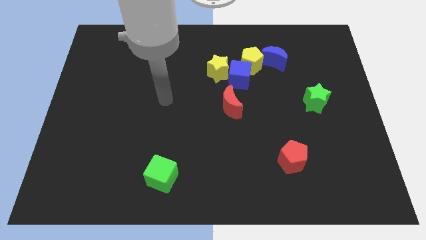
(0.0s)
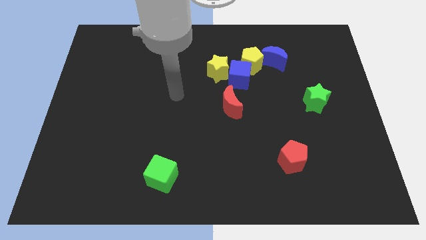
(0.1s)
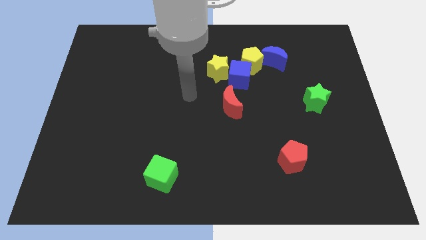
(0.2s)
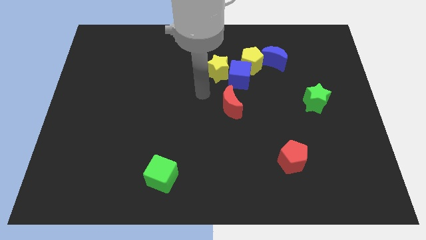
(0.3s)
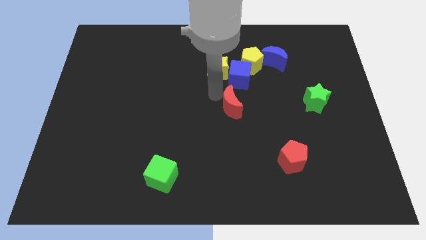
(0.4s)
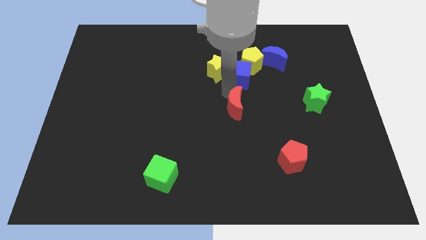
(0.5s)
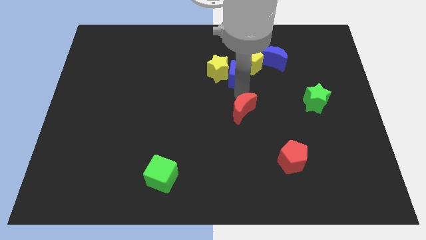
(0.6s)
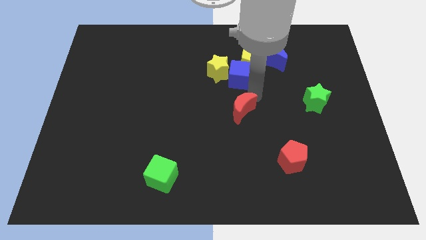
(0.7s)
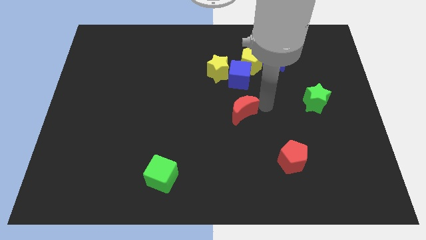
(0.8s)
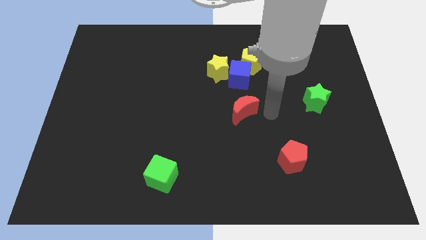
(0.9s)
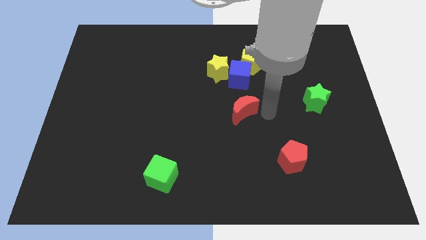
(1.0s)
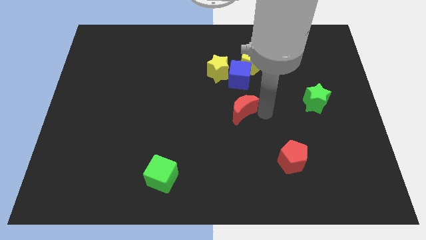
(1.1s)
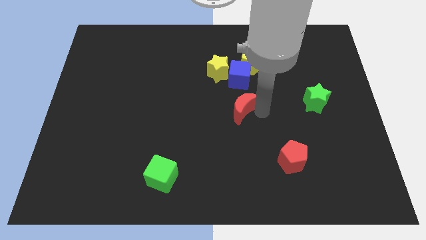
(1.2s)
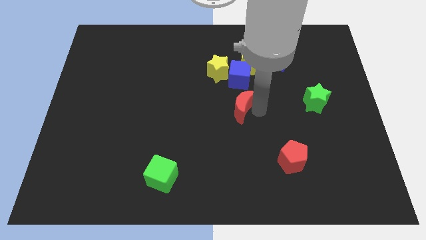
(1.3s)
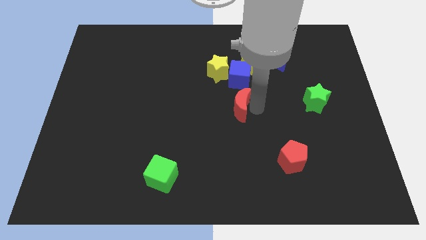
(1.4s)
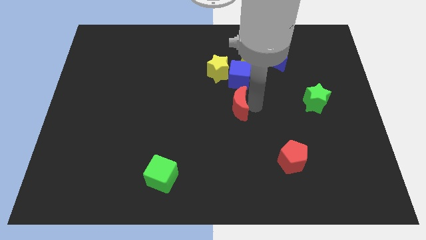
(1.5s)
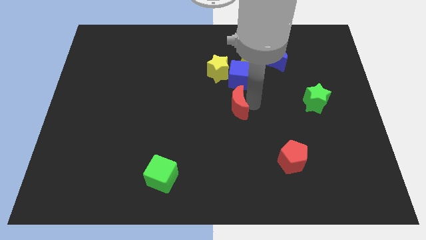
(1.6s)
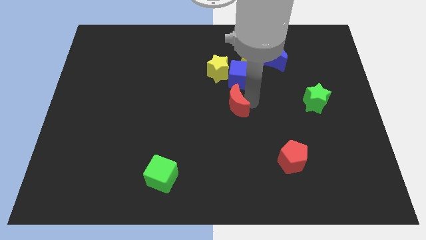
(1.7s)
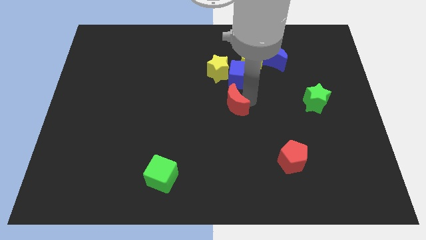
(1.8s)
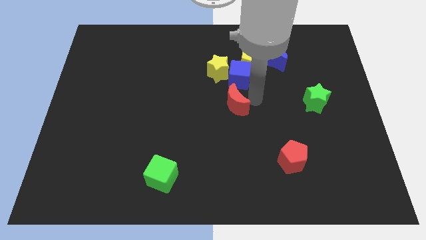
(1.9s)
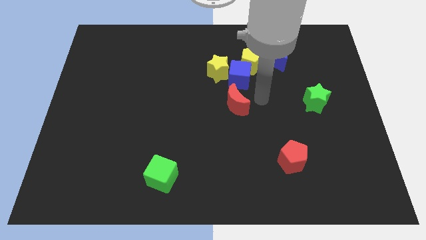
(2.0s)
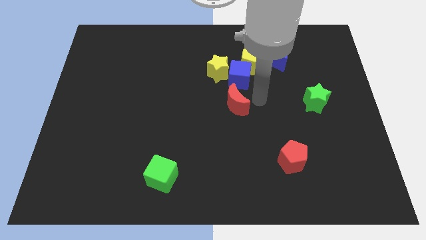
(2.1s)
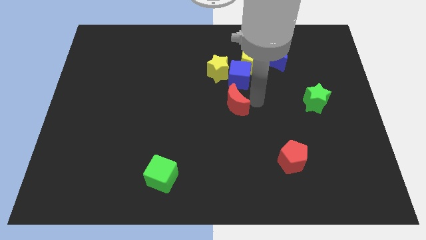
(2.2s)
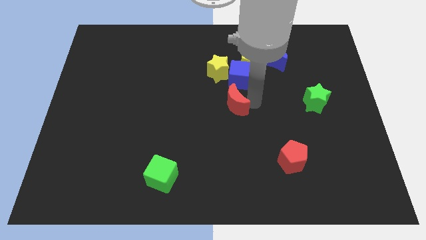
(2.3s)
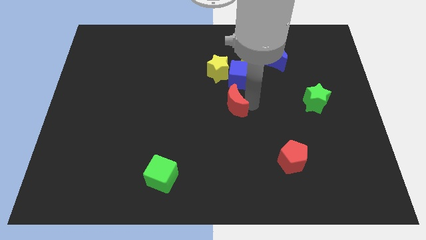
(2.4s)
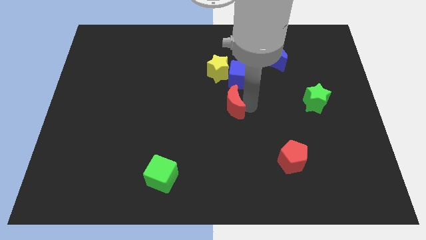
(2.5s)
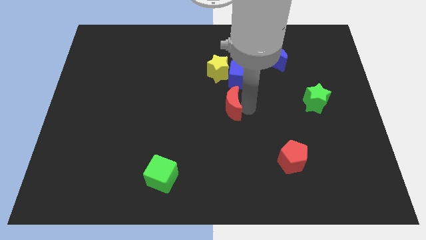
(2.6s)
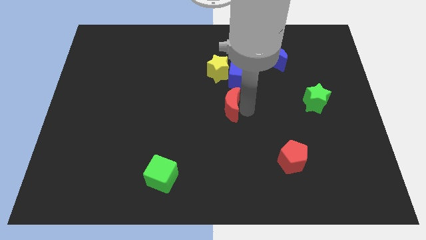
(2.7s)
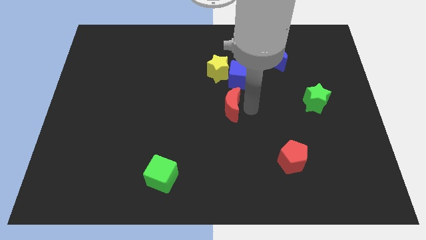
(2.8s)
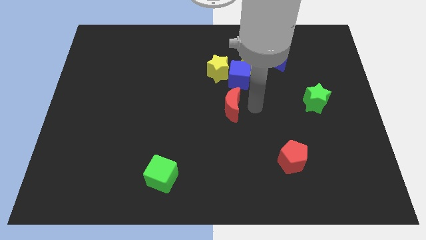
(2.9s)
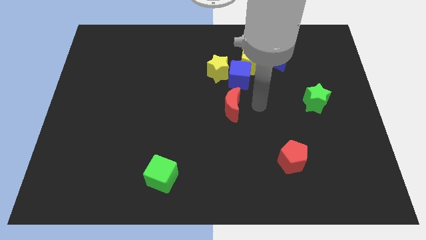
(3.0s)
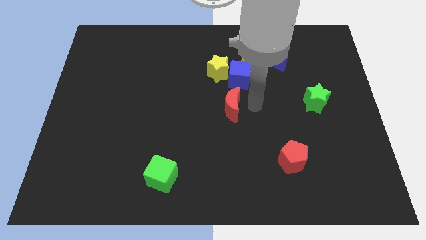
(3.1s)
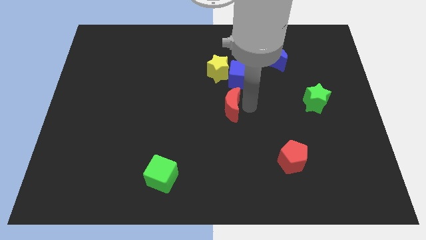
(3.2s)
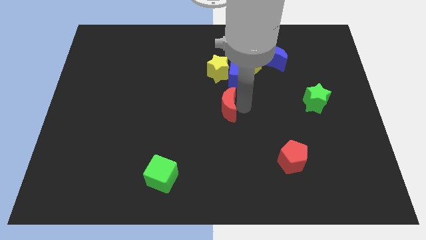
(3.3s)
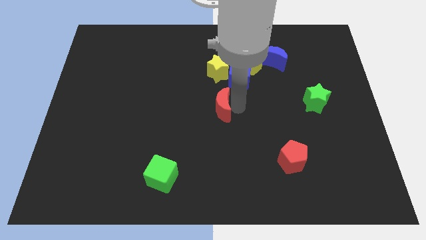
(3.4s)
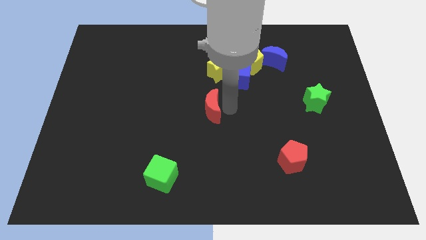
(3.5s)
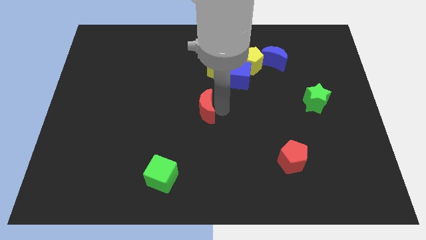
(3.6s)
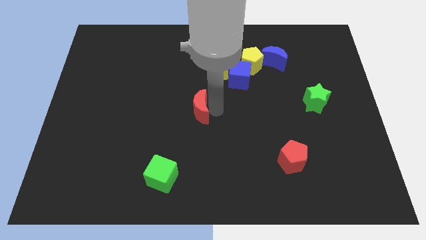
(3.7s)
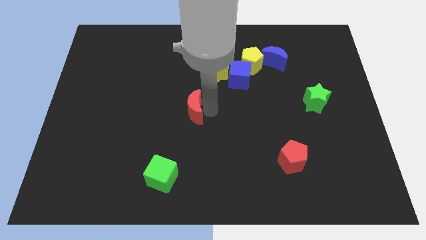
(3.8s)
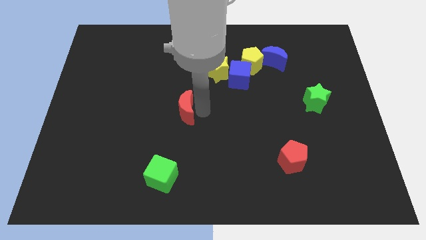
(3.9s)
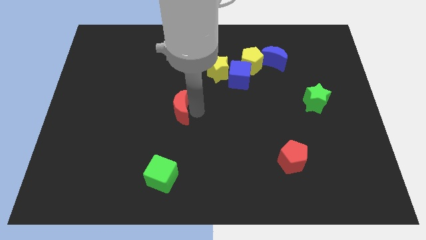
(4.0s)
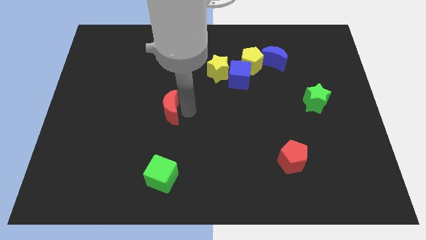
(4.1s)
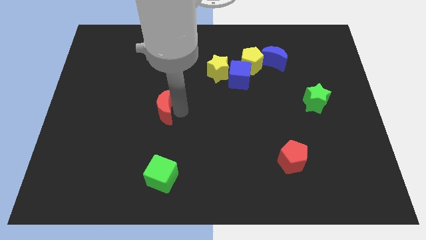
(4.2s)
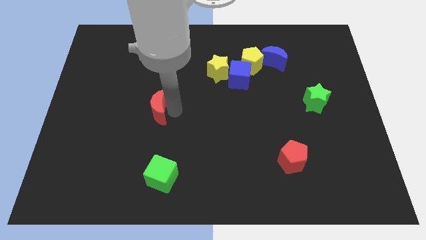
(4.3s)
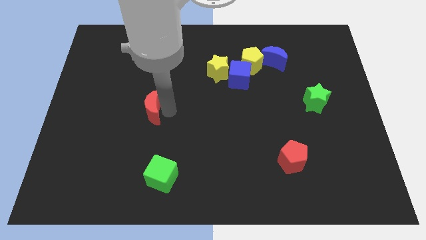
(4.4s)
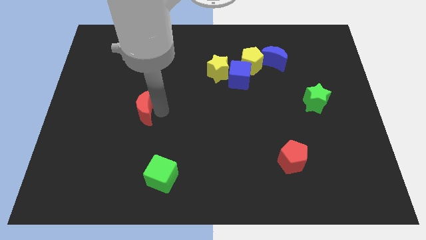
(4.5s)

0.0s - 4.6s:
push the red moon to the left

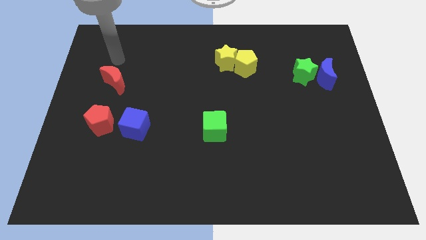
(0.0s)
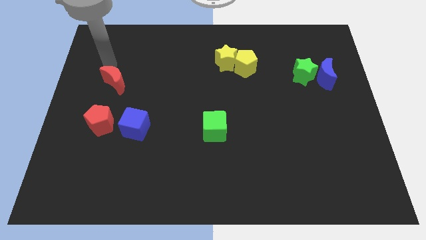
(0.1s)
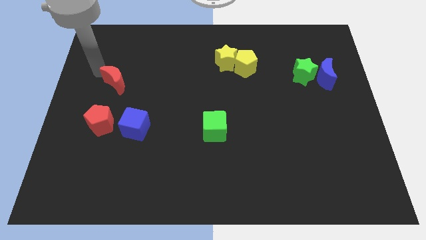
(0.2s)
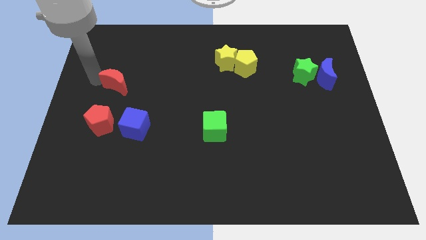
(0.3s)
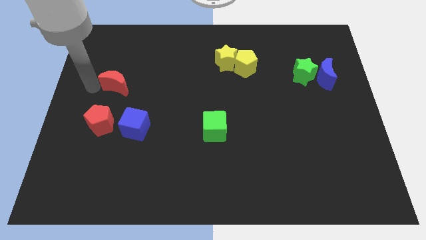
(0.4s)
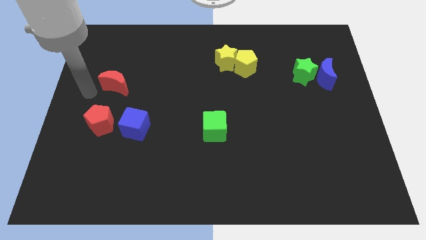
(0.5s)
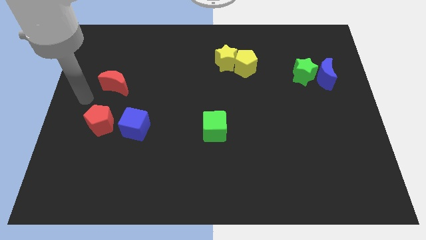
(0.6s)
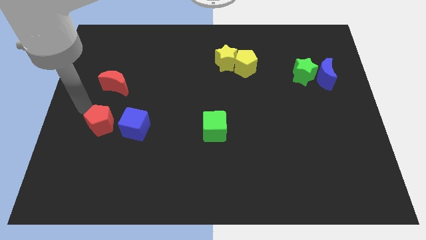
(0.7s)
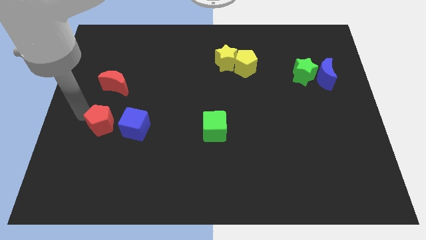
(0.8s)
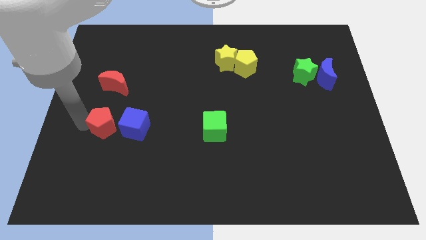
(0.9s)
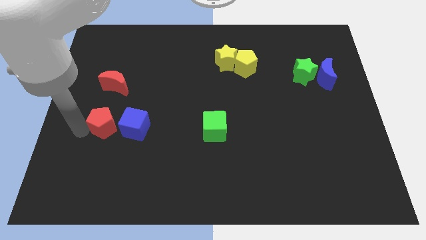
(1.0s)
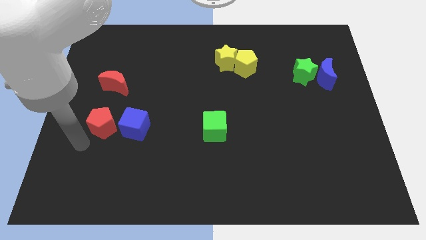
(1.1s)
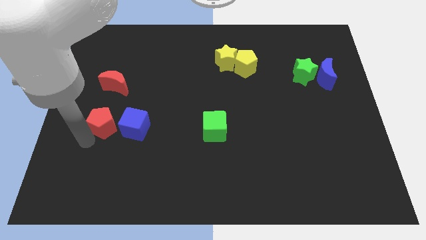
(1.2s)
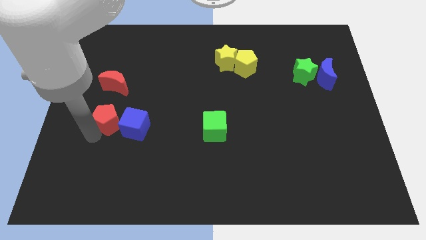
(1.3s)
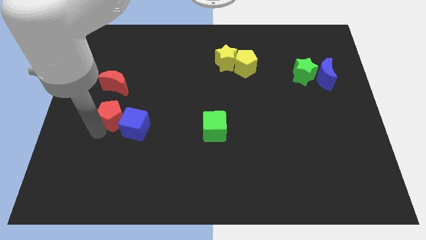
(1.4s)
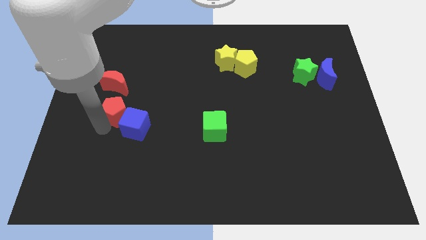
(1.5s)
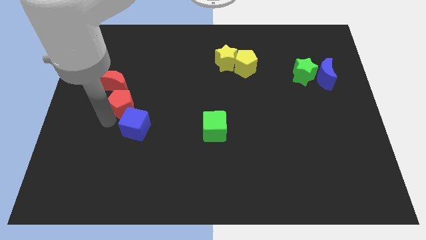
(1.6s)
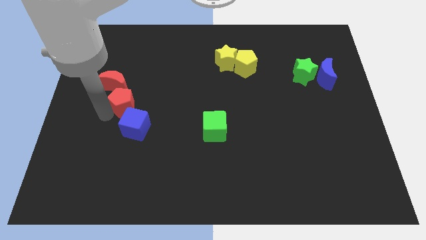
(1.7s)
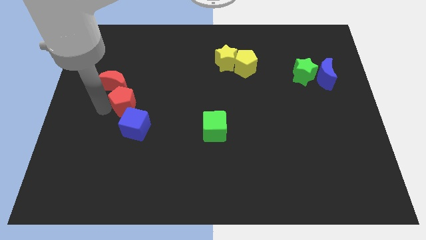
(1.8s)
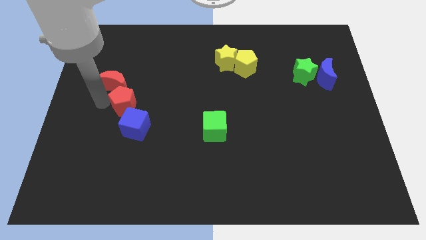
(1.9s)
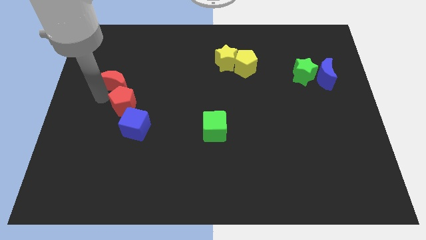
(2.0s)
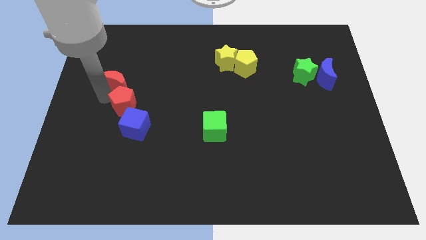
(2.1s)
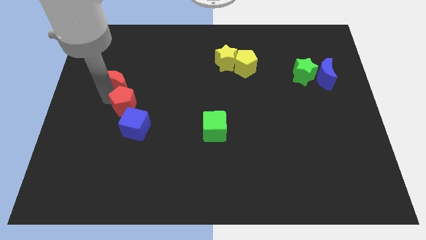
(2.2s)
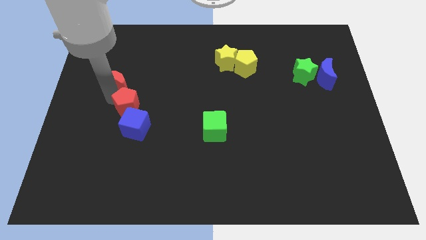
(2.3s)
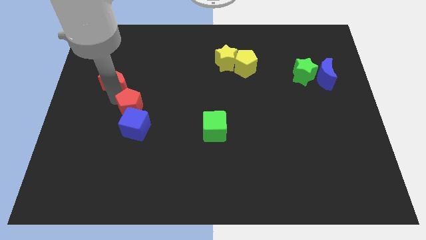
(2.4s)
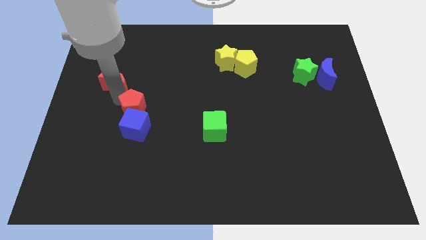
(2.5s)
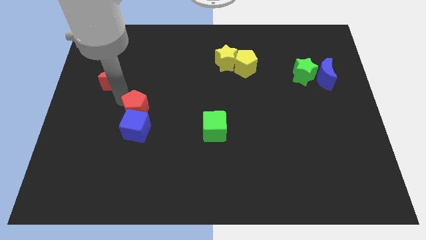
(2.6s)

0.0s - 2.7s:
slide the red pentagon to the right a little bit

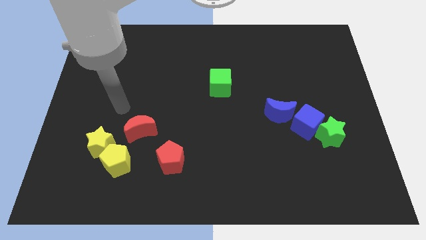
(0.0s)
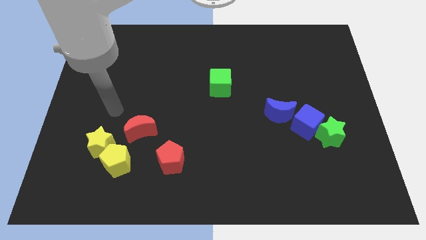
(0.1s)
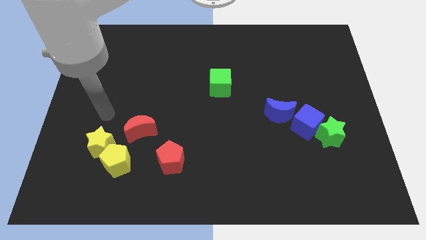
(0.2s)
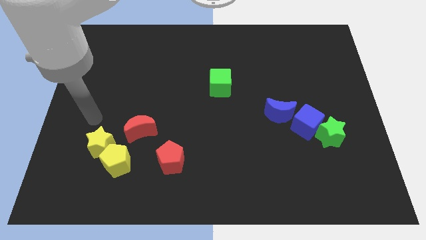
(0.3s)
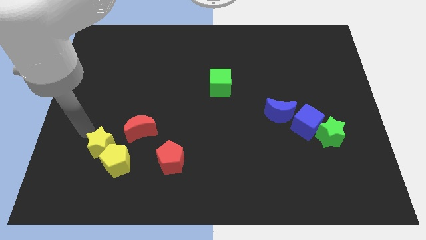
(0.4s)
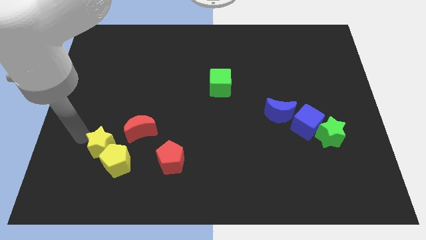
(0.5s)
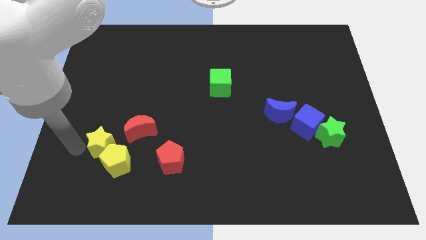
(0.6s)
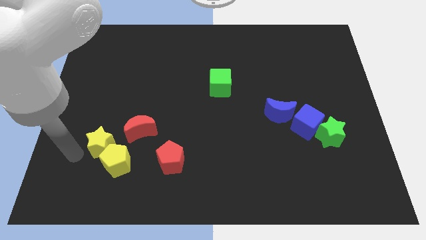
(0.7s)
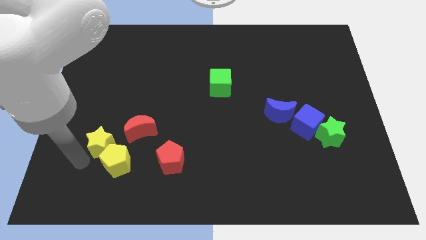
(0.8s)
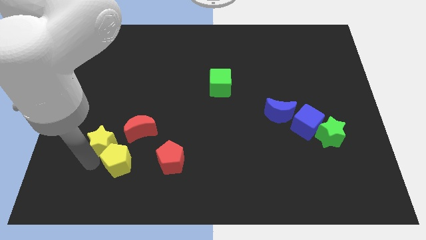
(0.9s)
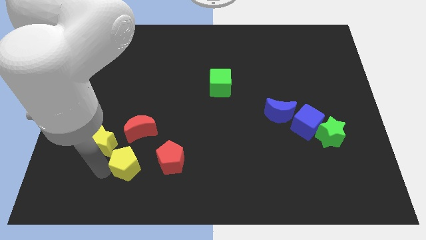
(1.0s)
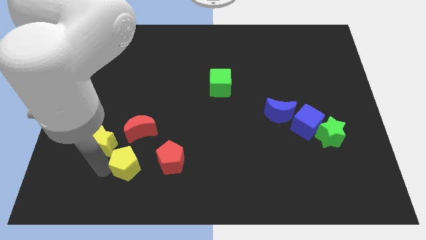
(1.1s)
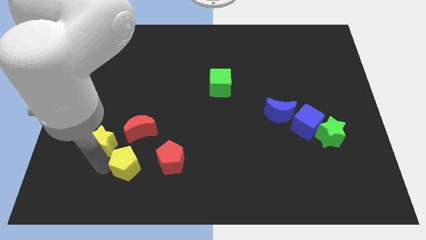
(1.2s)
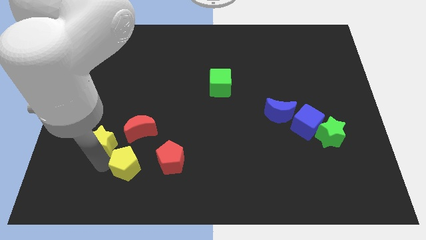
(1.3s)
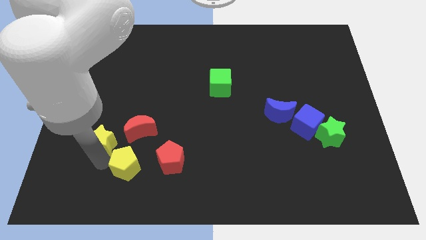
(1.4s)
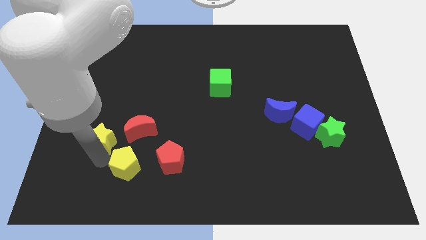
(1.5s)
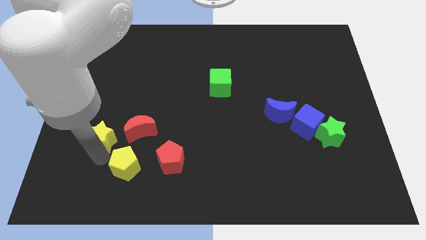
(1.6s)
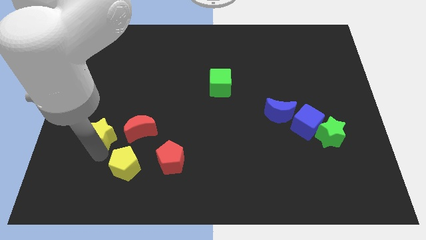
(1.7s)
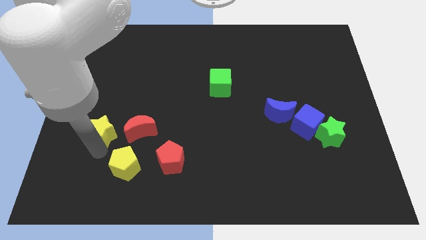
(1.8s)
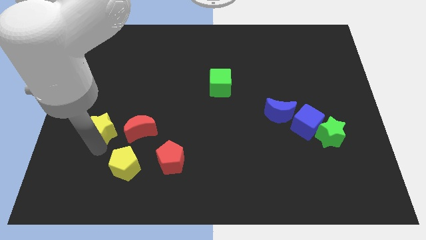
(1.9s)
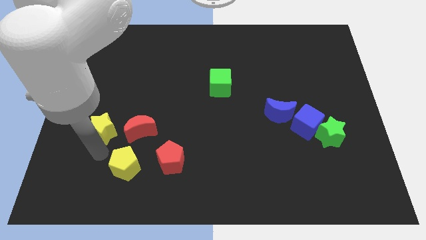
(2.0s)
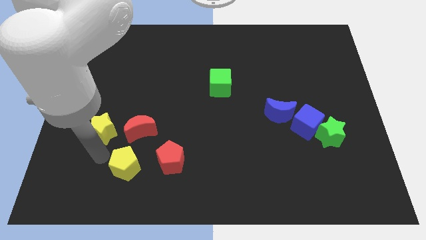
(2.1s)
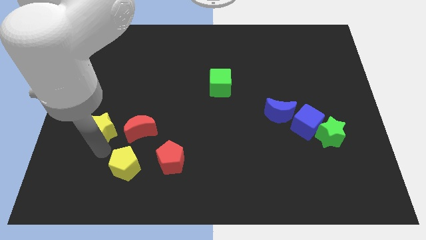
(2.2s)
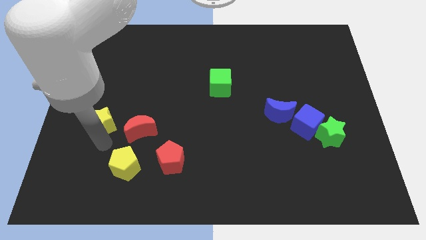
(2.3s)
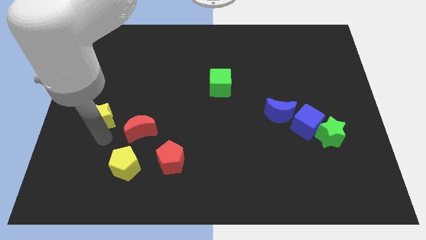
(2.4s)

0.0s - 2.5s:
slide the yellow star a little bit upwards
